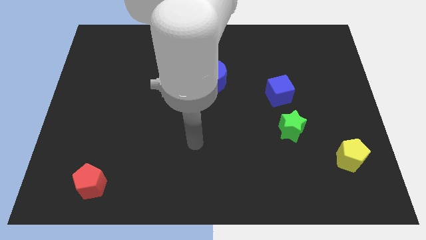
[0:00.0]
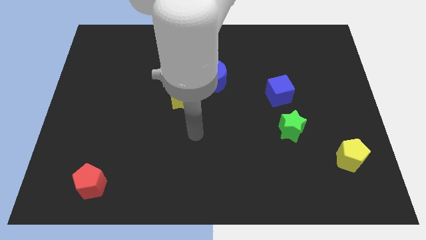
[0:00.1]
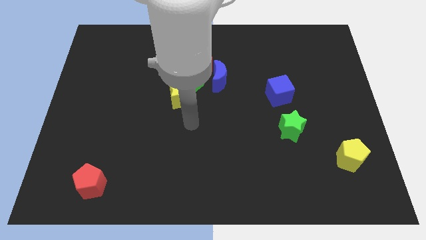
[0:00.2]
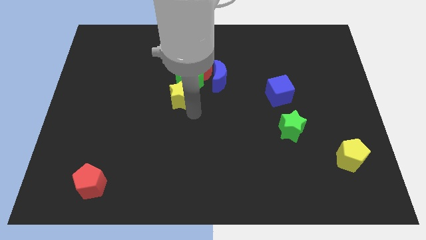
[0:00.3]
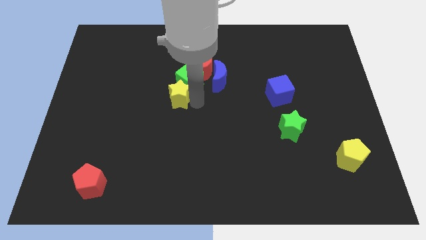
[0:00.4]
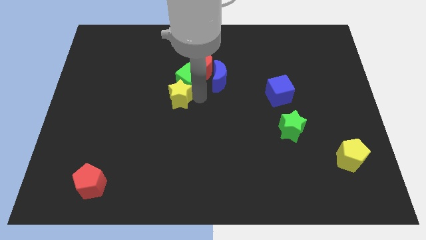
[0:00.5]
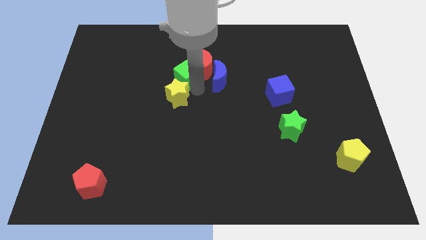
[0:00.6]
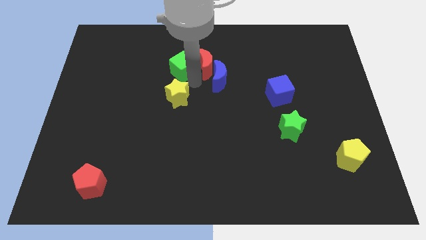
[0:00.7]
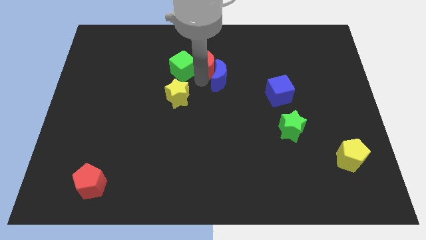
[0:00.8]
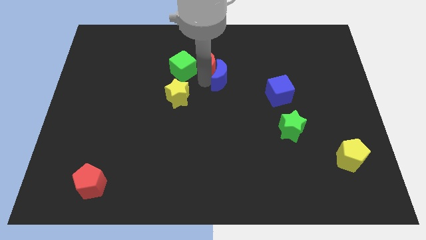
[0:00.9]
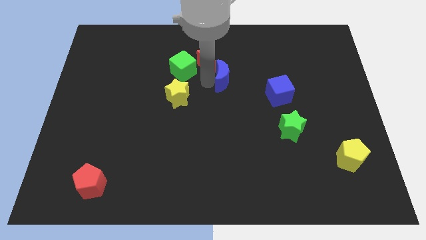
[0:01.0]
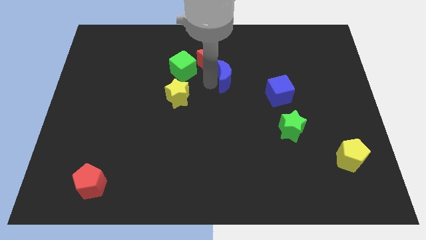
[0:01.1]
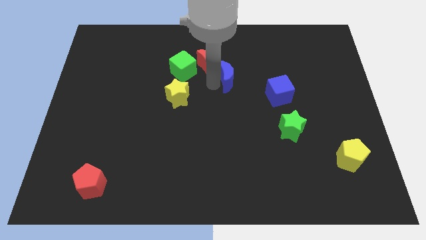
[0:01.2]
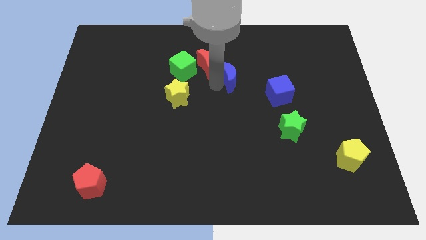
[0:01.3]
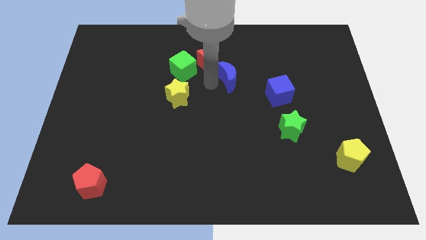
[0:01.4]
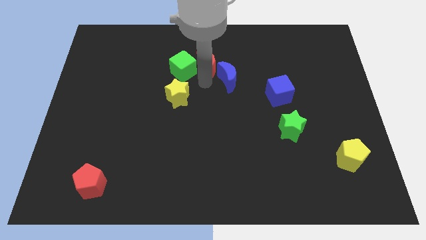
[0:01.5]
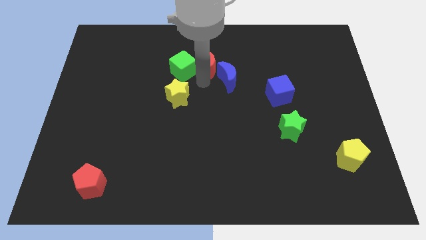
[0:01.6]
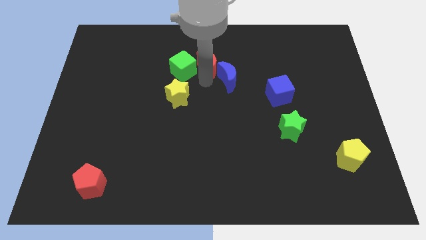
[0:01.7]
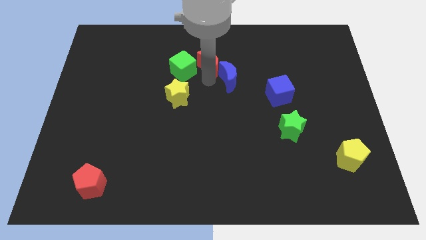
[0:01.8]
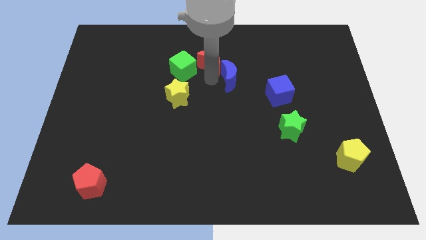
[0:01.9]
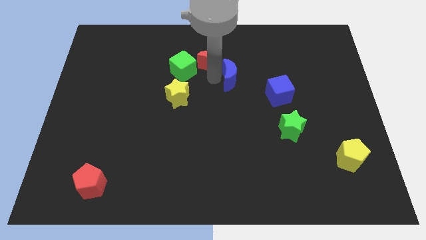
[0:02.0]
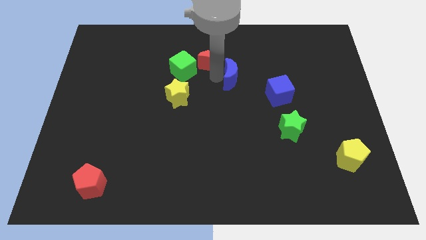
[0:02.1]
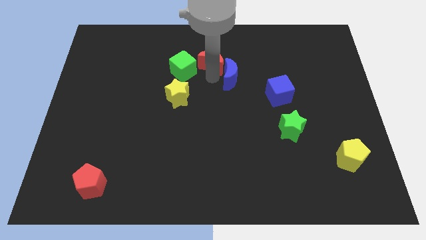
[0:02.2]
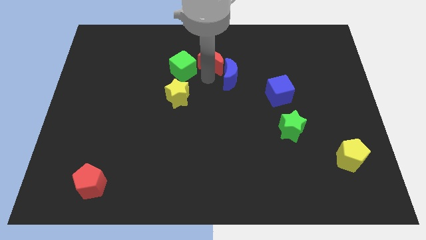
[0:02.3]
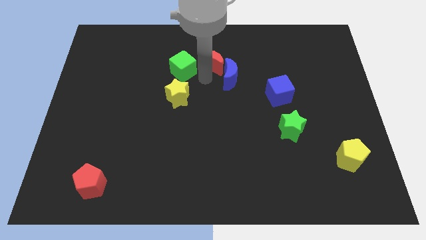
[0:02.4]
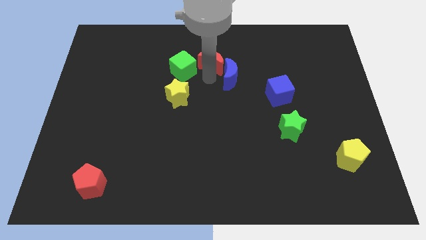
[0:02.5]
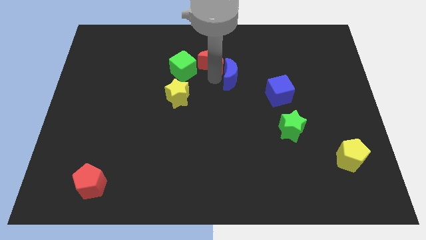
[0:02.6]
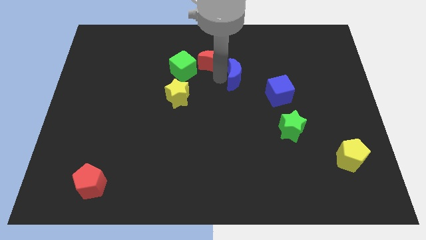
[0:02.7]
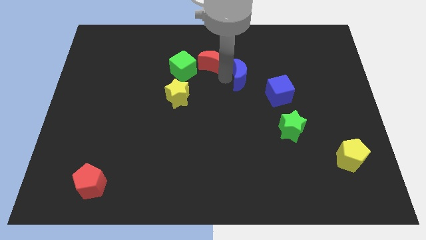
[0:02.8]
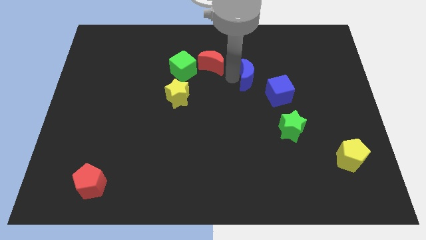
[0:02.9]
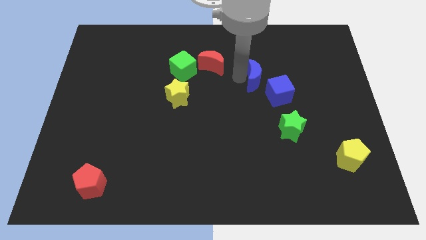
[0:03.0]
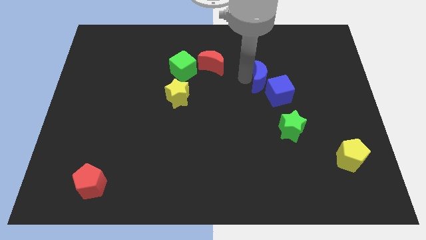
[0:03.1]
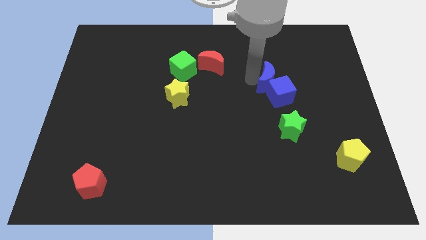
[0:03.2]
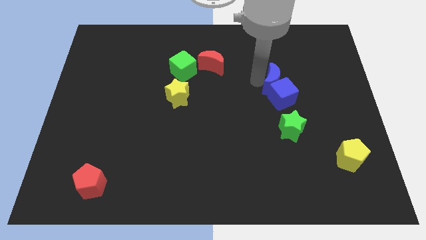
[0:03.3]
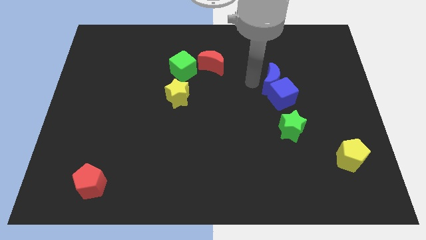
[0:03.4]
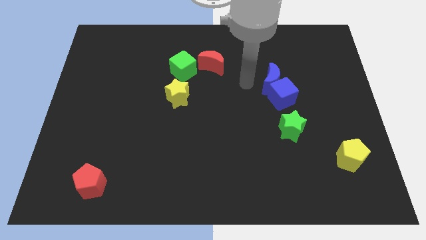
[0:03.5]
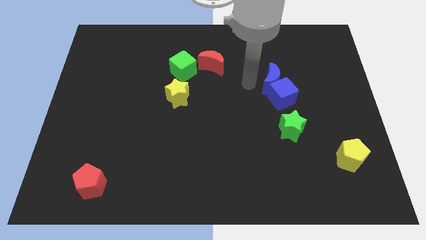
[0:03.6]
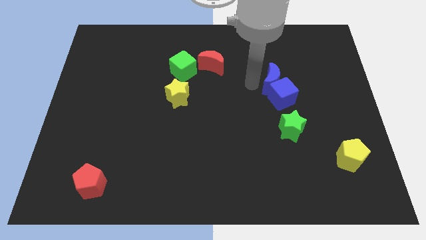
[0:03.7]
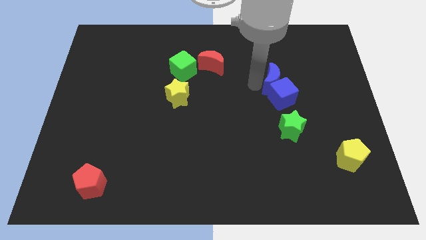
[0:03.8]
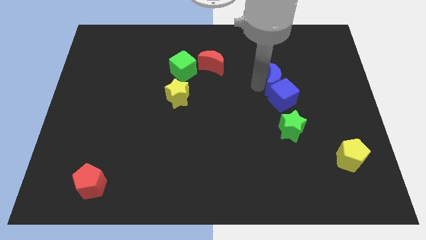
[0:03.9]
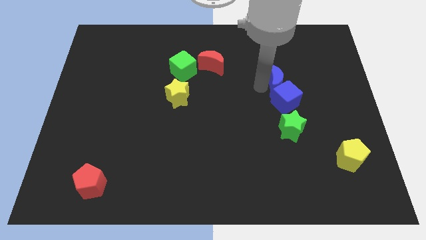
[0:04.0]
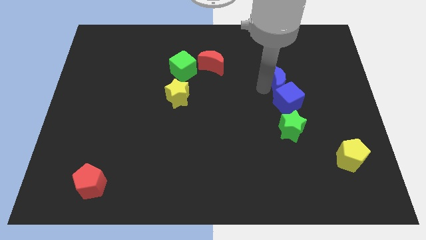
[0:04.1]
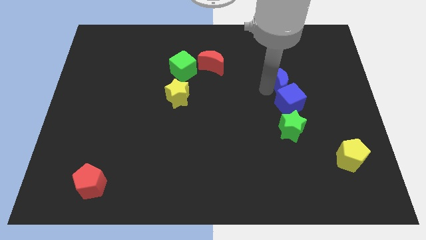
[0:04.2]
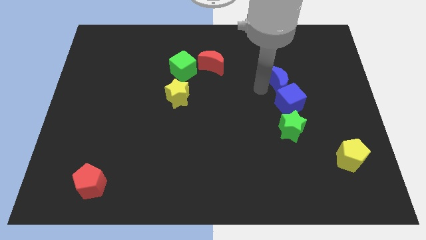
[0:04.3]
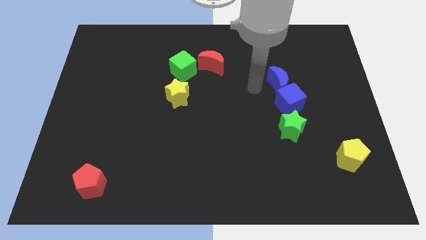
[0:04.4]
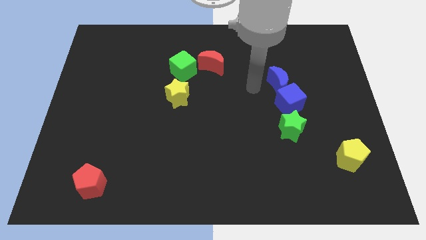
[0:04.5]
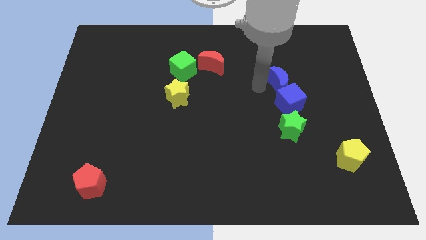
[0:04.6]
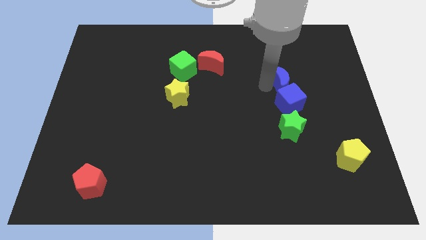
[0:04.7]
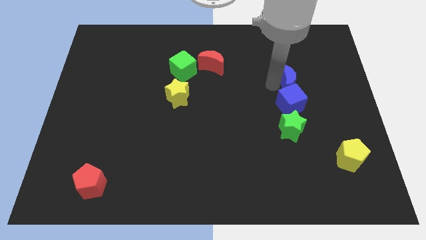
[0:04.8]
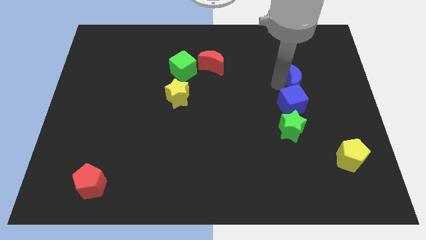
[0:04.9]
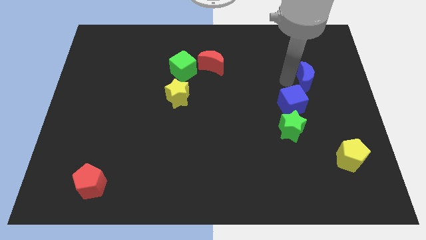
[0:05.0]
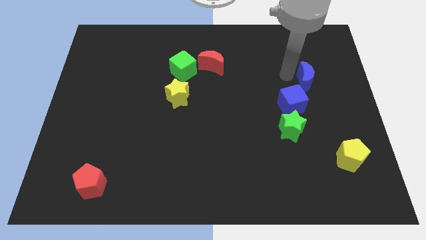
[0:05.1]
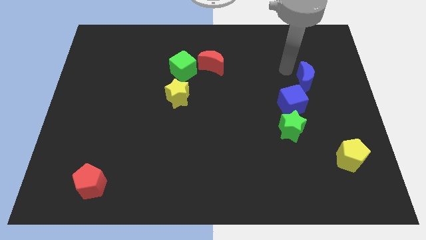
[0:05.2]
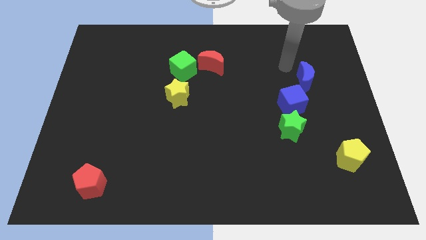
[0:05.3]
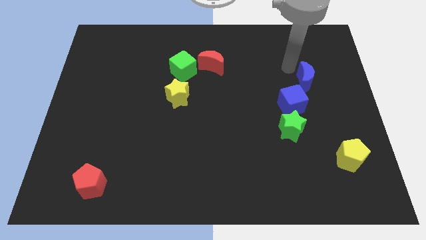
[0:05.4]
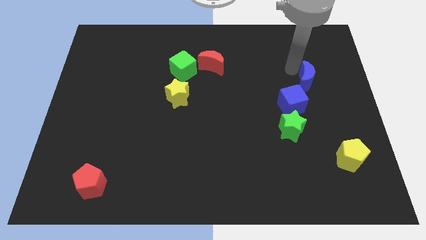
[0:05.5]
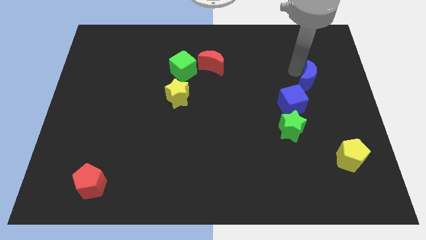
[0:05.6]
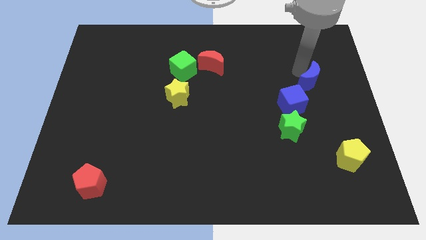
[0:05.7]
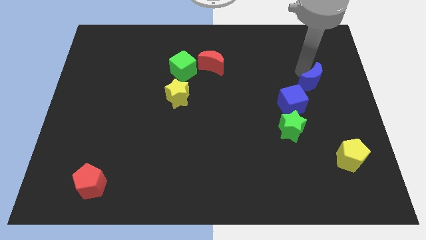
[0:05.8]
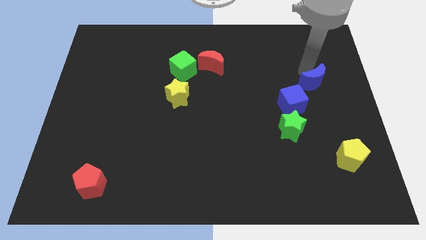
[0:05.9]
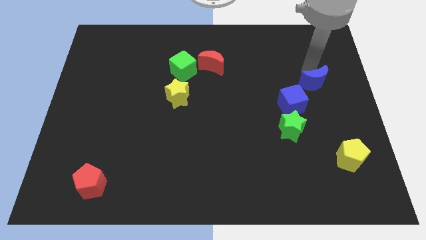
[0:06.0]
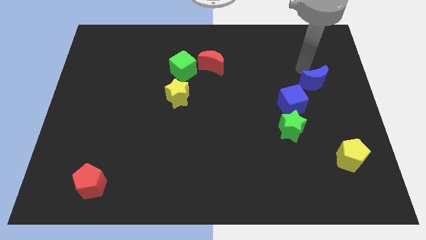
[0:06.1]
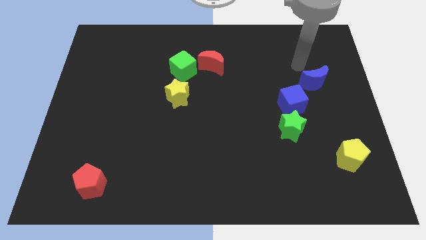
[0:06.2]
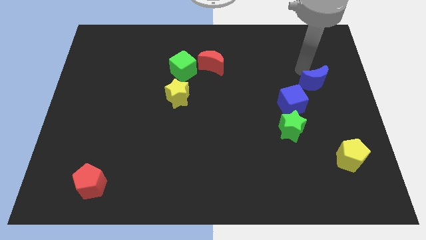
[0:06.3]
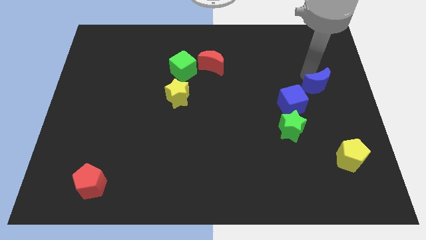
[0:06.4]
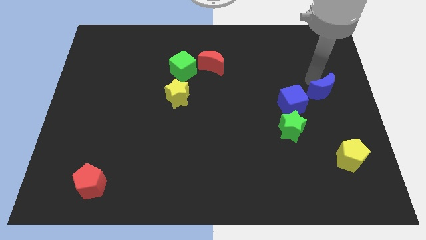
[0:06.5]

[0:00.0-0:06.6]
slide the blue moon right of the blue cube
